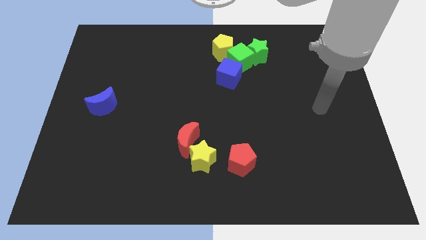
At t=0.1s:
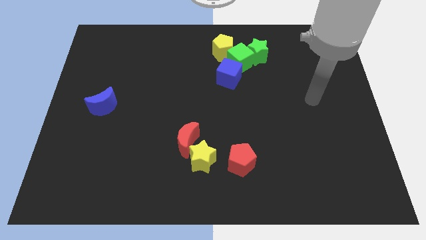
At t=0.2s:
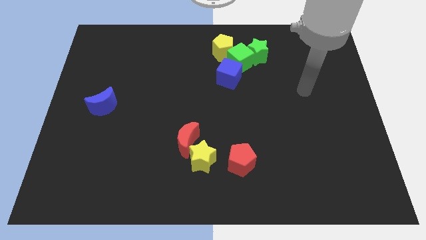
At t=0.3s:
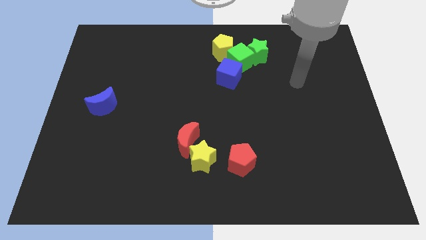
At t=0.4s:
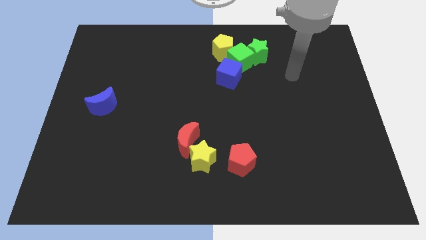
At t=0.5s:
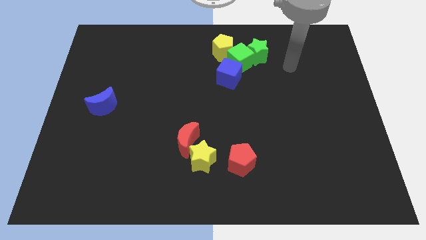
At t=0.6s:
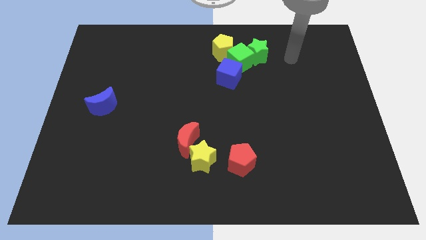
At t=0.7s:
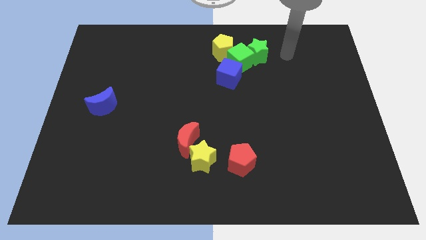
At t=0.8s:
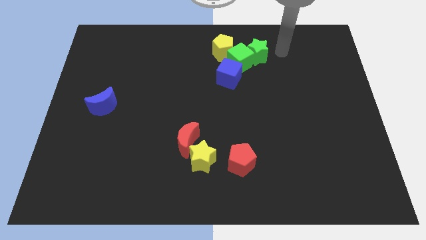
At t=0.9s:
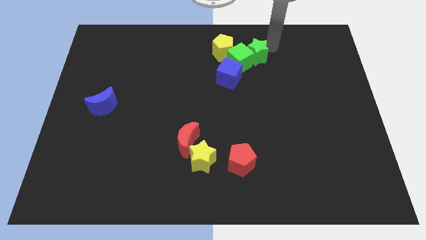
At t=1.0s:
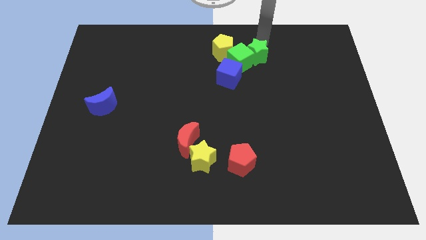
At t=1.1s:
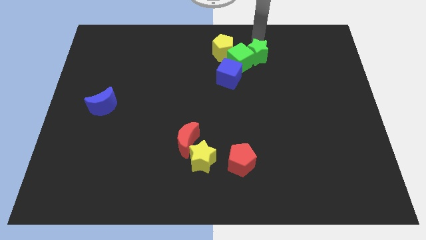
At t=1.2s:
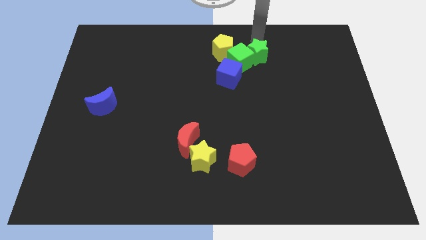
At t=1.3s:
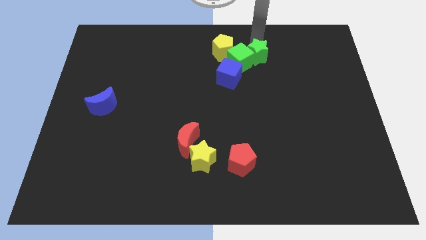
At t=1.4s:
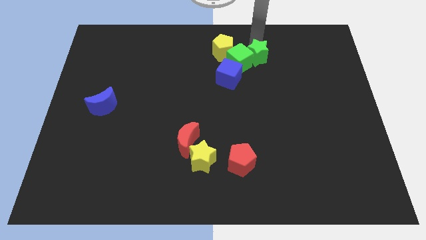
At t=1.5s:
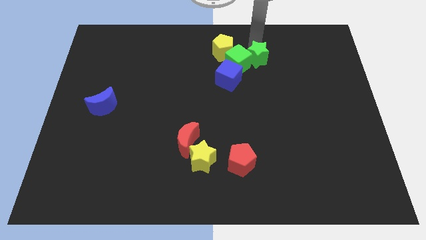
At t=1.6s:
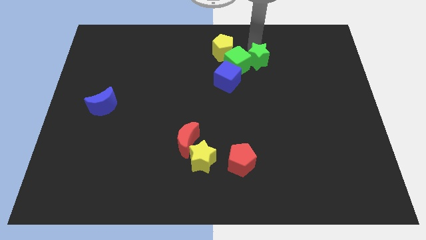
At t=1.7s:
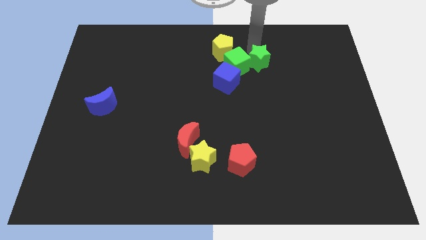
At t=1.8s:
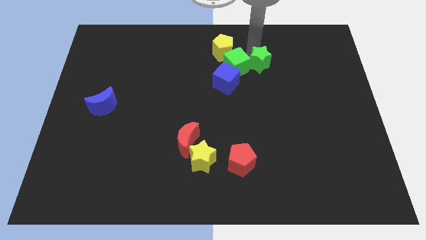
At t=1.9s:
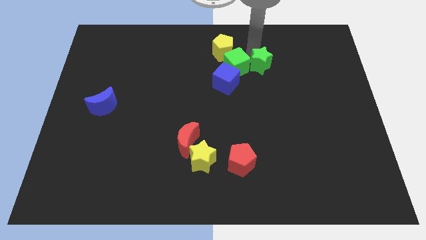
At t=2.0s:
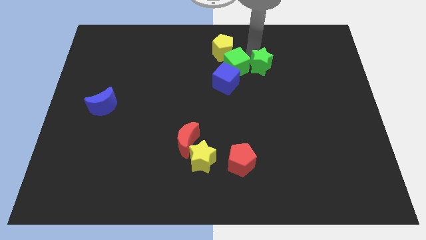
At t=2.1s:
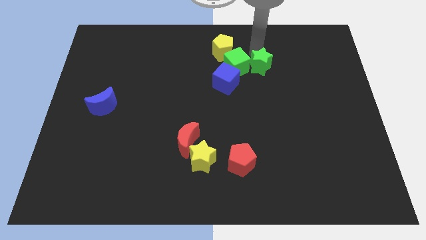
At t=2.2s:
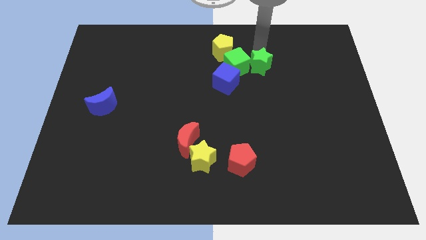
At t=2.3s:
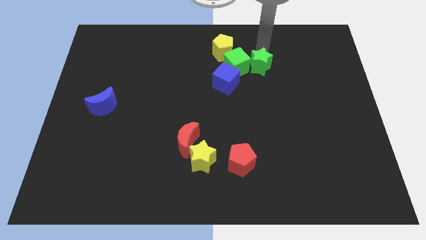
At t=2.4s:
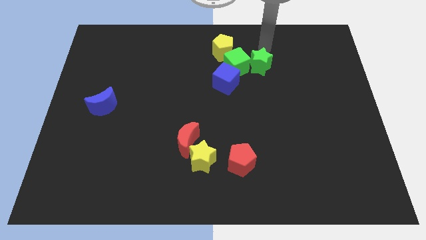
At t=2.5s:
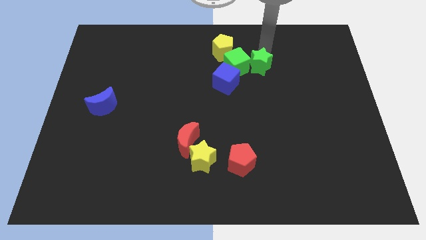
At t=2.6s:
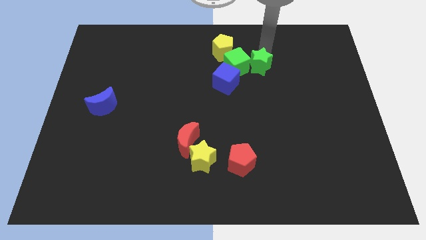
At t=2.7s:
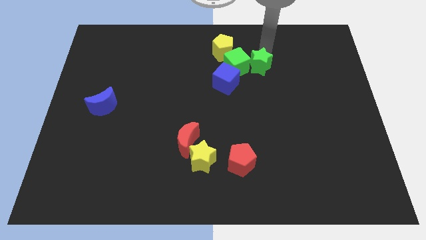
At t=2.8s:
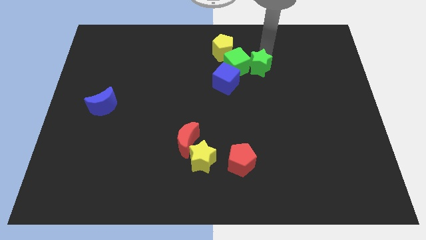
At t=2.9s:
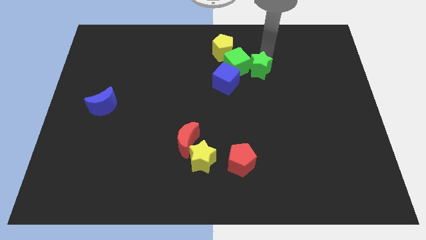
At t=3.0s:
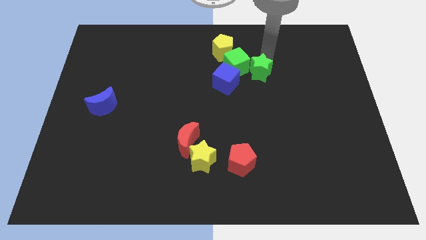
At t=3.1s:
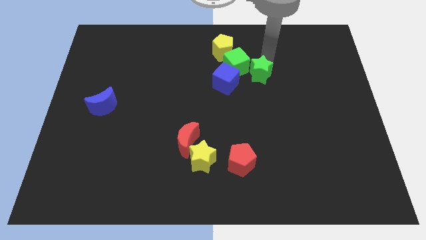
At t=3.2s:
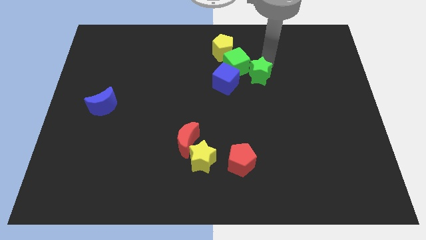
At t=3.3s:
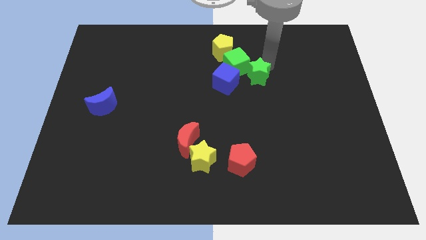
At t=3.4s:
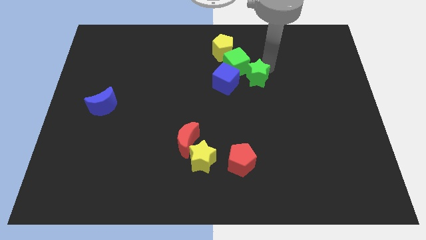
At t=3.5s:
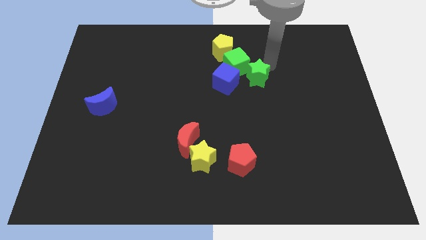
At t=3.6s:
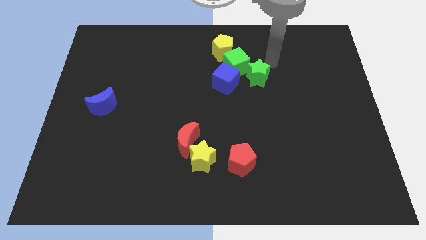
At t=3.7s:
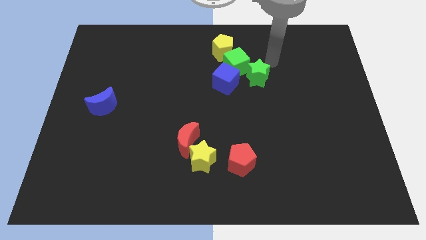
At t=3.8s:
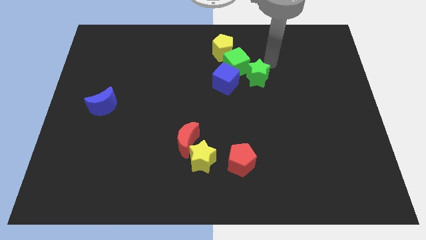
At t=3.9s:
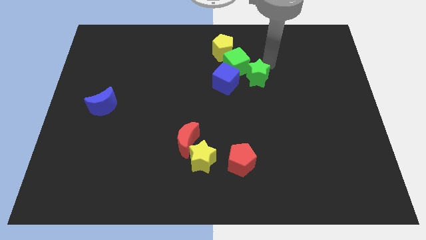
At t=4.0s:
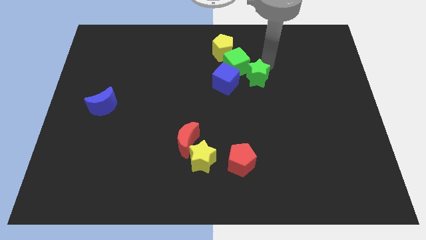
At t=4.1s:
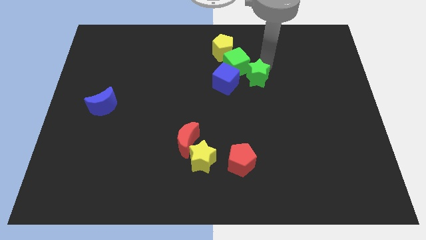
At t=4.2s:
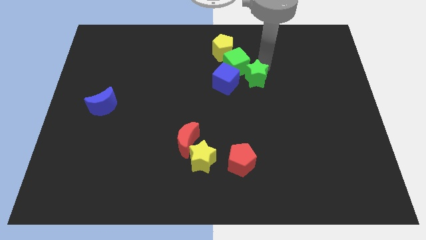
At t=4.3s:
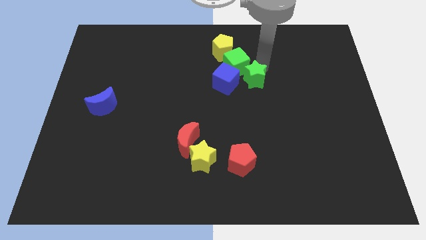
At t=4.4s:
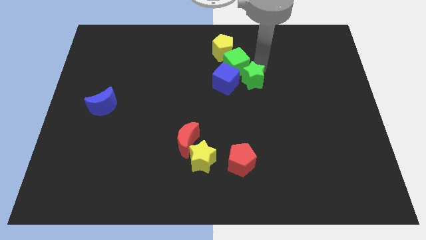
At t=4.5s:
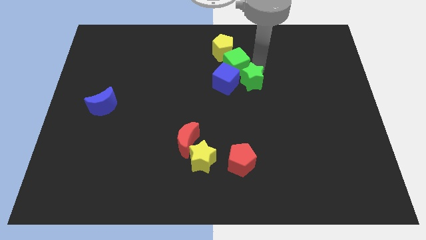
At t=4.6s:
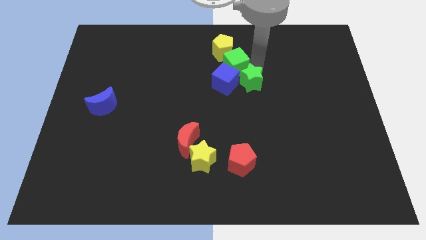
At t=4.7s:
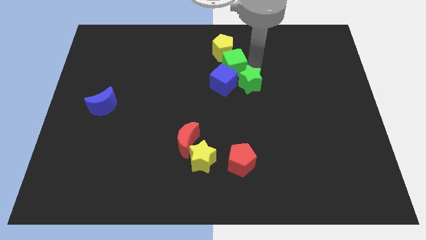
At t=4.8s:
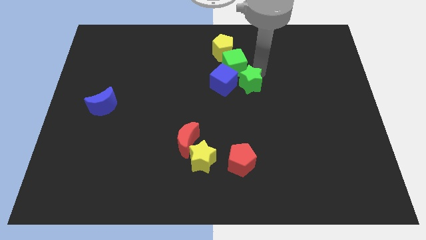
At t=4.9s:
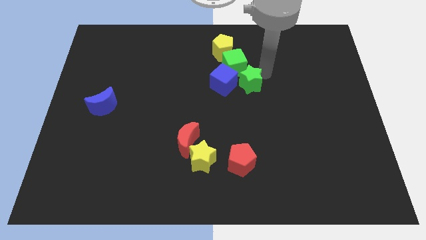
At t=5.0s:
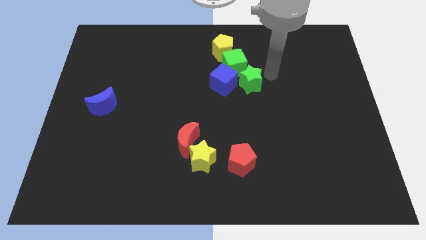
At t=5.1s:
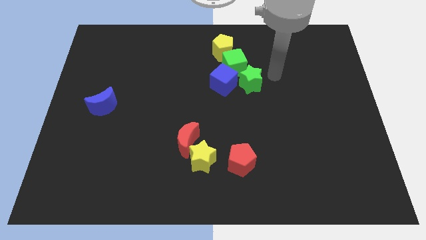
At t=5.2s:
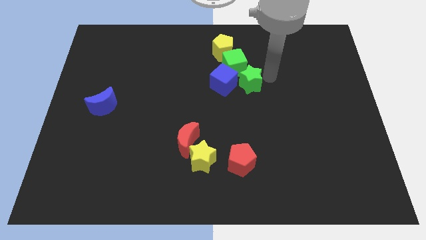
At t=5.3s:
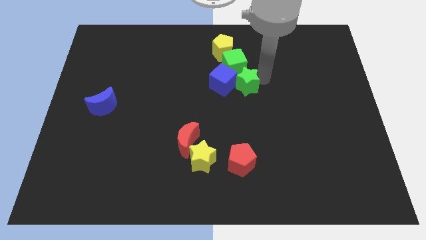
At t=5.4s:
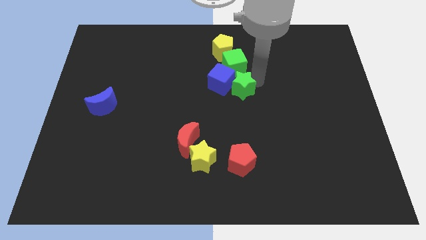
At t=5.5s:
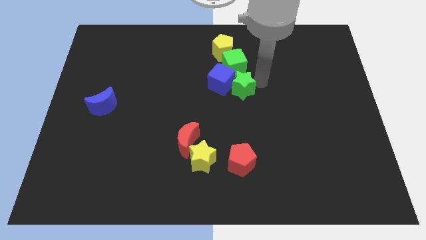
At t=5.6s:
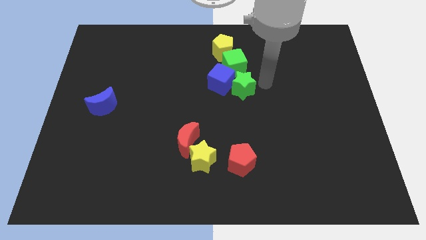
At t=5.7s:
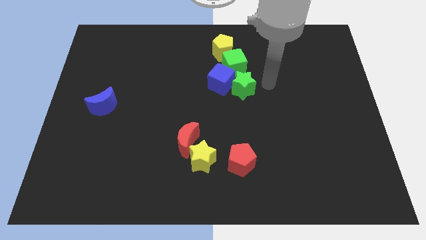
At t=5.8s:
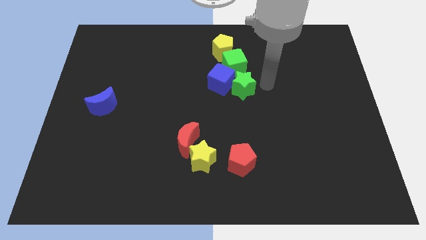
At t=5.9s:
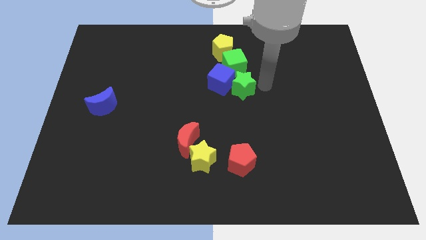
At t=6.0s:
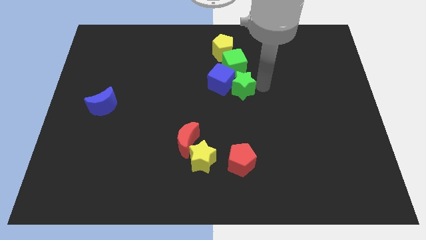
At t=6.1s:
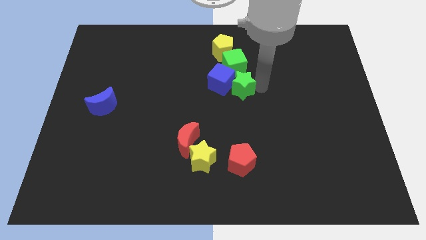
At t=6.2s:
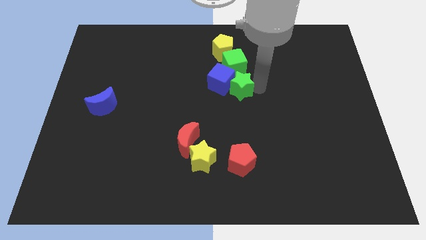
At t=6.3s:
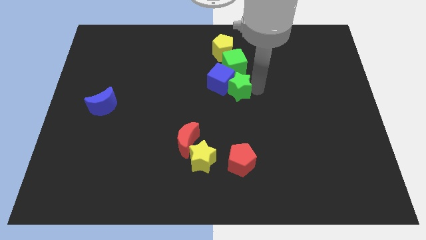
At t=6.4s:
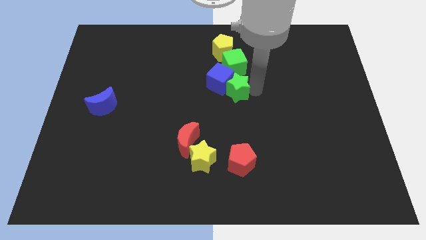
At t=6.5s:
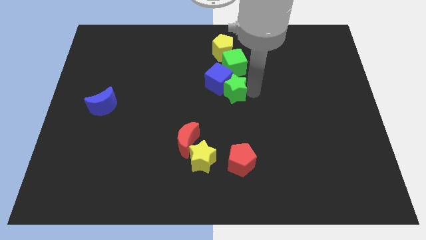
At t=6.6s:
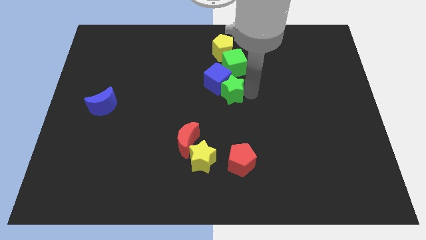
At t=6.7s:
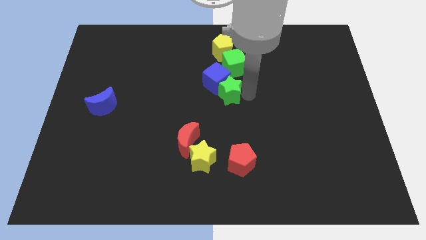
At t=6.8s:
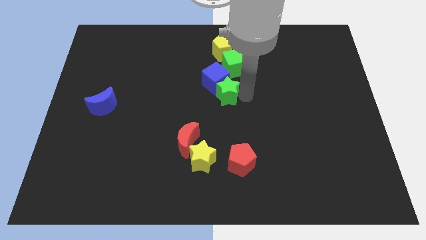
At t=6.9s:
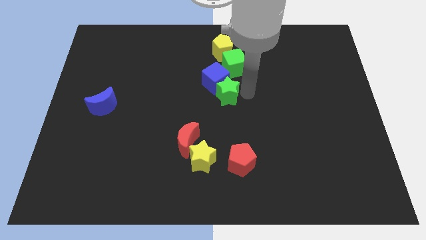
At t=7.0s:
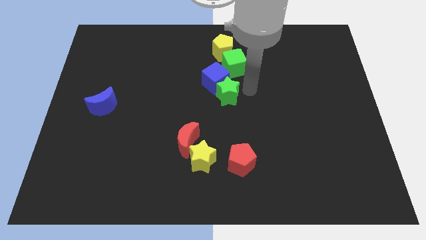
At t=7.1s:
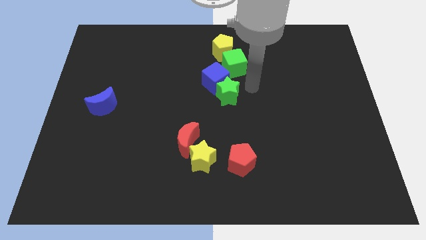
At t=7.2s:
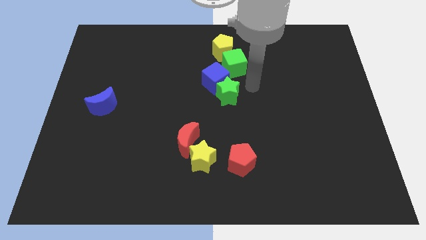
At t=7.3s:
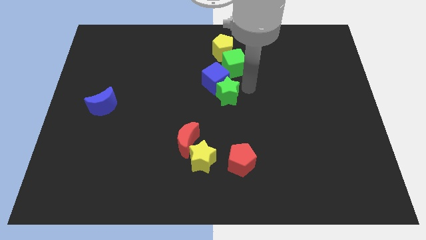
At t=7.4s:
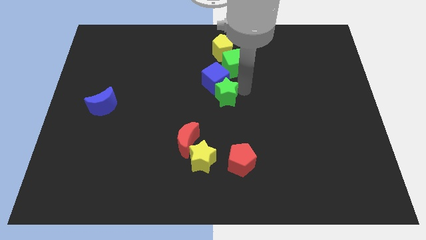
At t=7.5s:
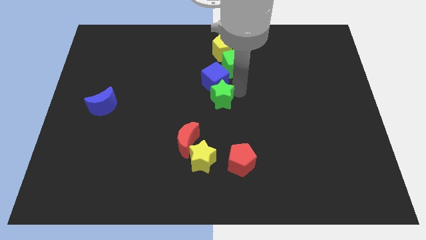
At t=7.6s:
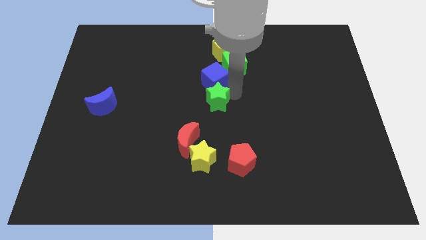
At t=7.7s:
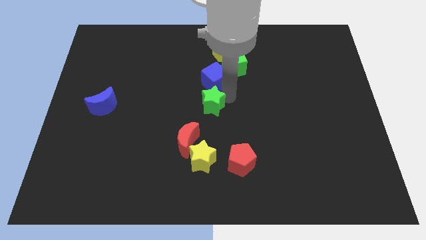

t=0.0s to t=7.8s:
push the green star diagonally down and to the left

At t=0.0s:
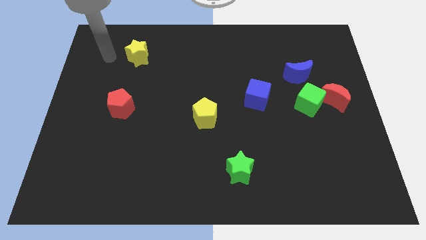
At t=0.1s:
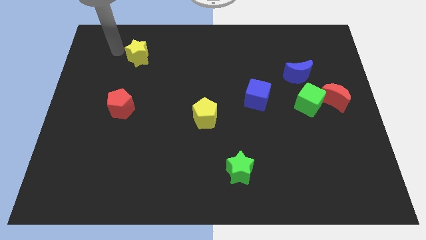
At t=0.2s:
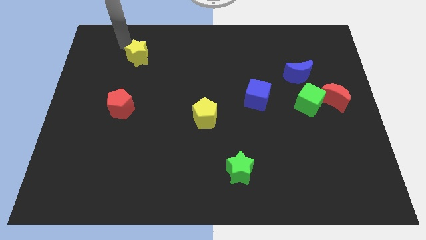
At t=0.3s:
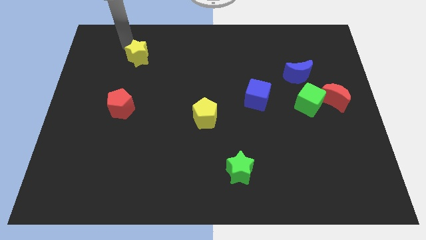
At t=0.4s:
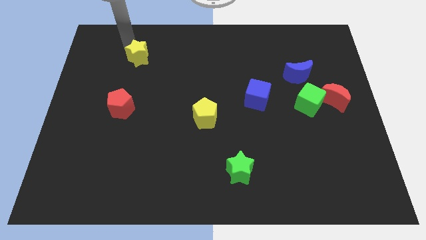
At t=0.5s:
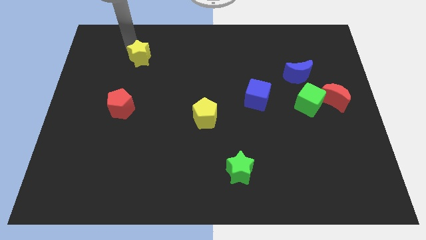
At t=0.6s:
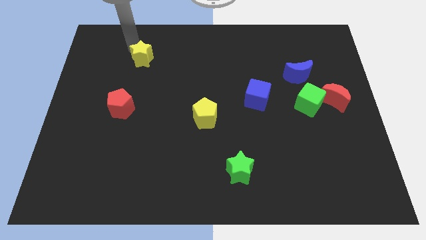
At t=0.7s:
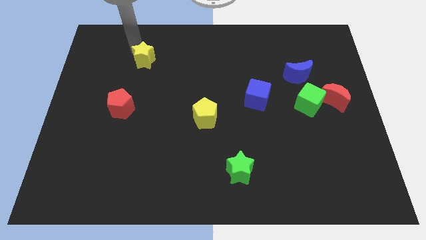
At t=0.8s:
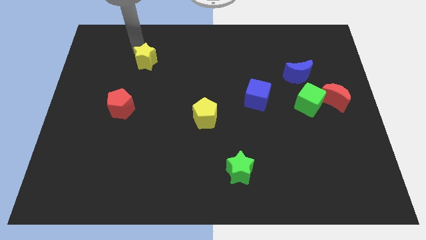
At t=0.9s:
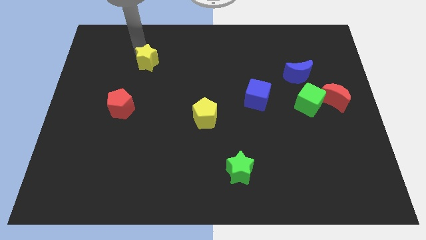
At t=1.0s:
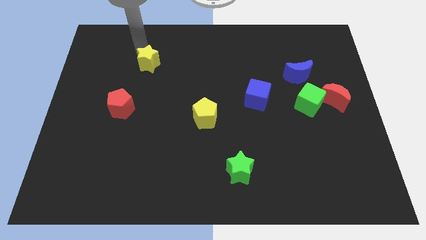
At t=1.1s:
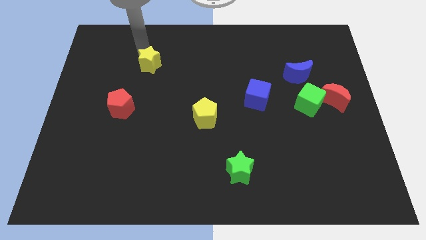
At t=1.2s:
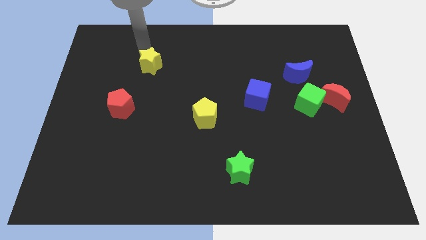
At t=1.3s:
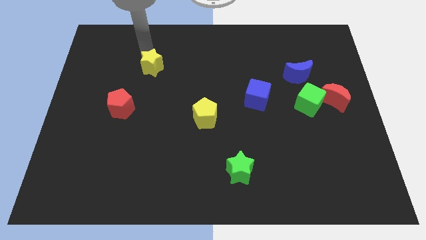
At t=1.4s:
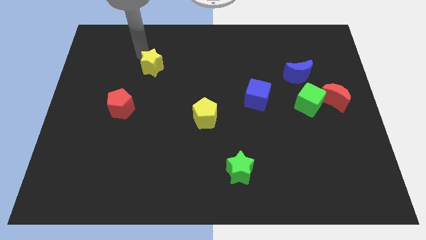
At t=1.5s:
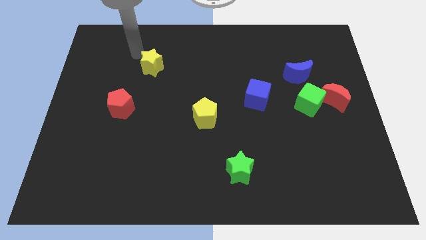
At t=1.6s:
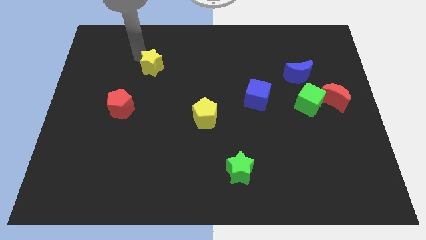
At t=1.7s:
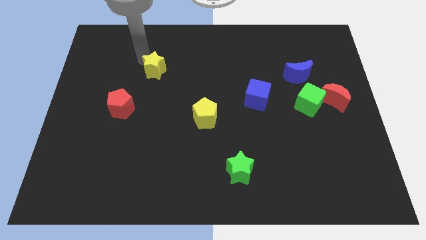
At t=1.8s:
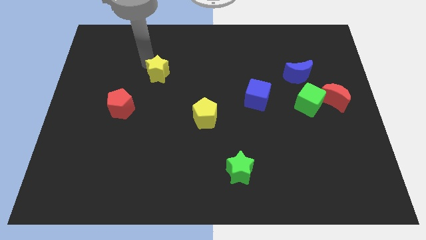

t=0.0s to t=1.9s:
push the yellow star a little bit down and right diagonally
